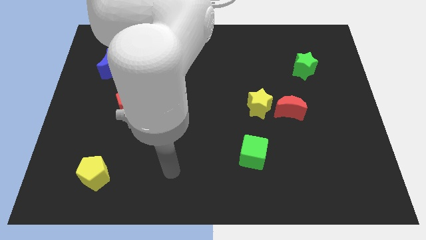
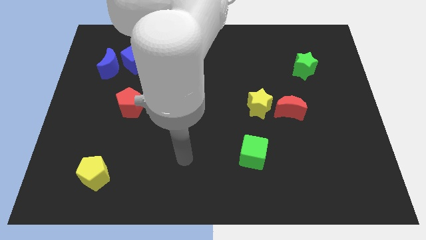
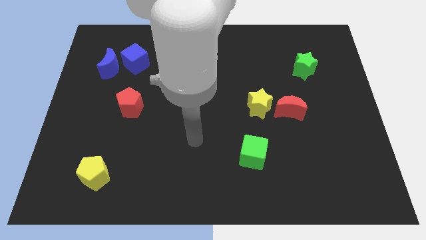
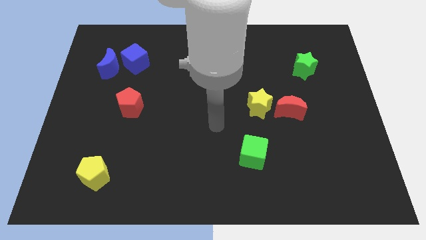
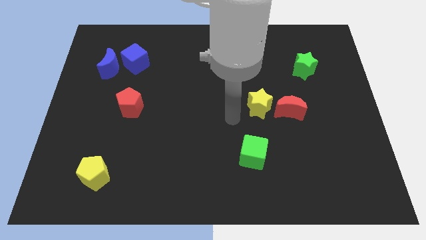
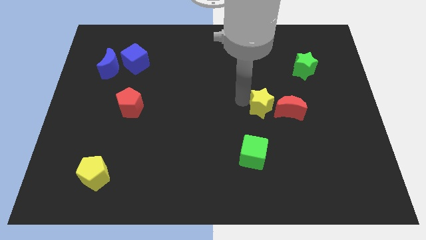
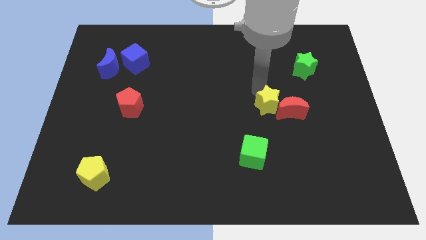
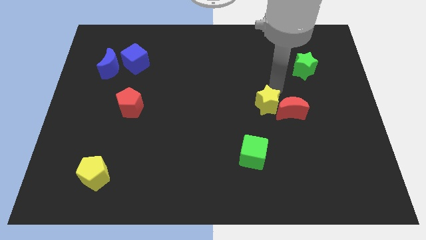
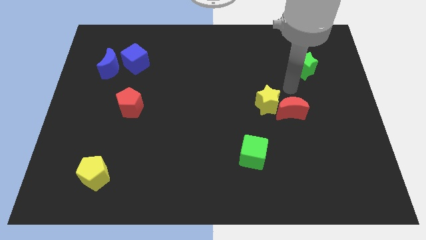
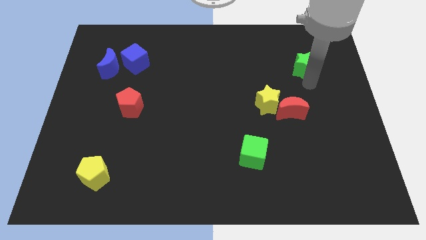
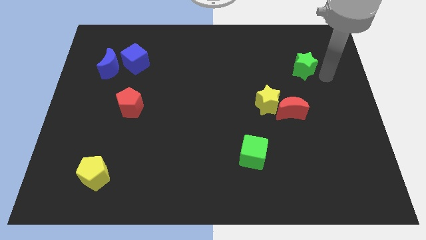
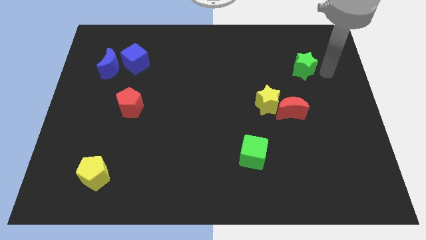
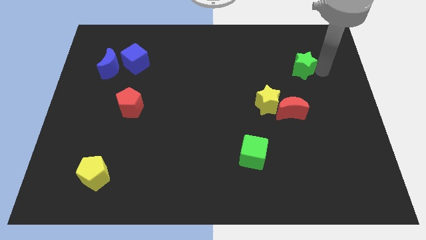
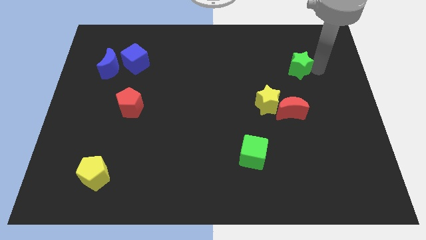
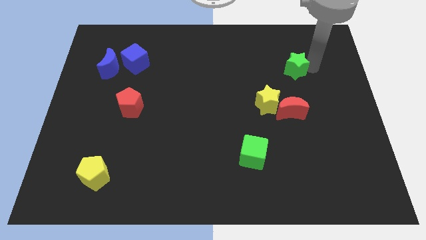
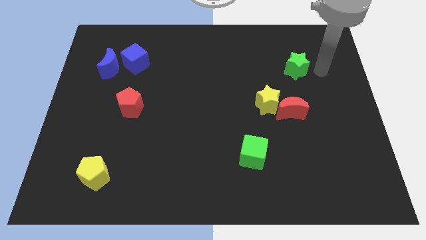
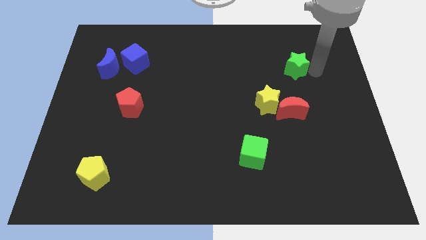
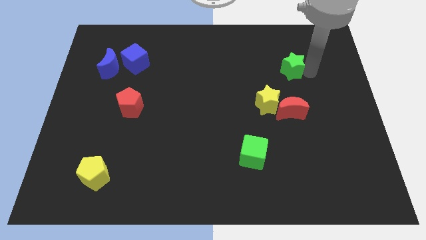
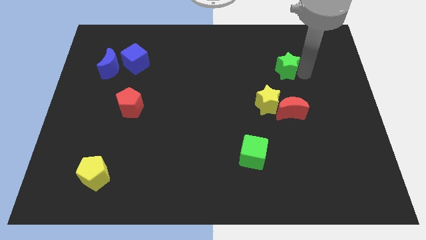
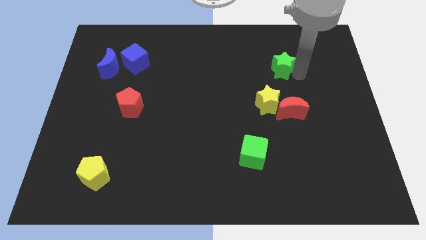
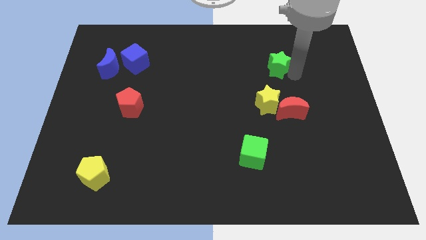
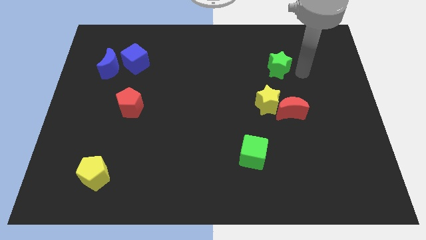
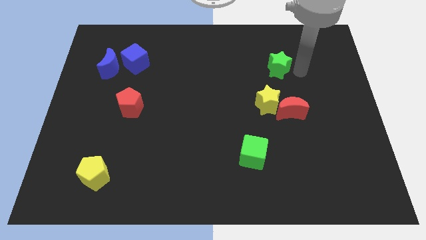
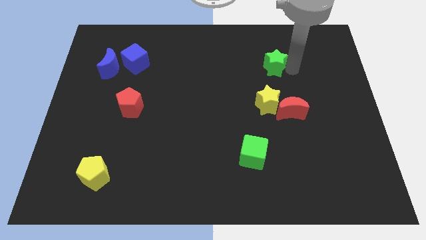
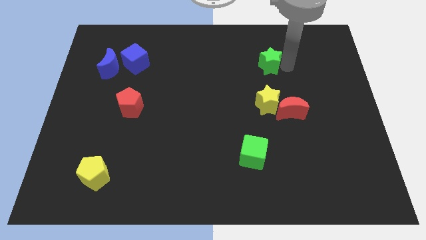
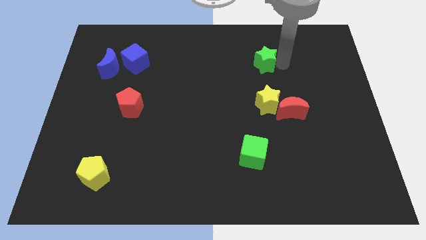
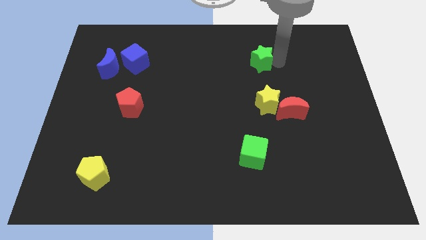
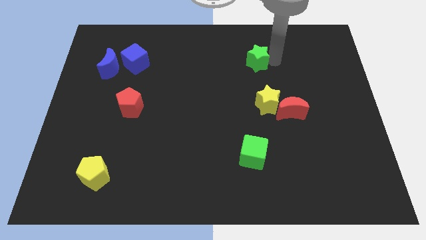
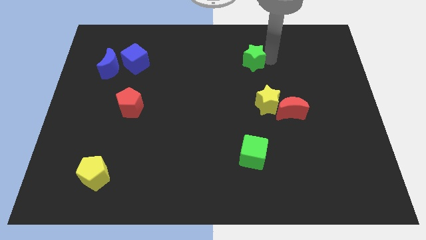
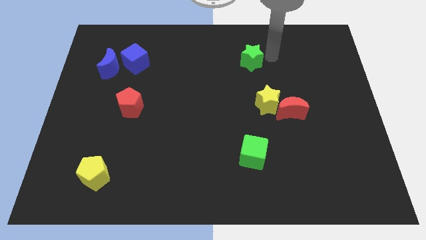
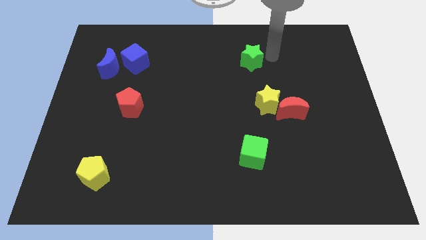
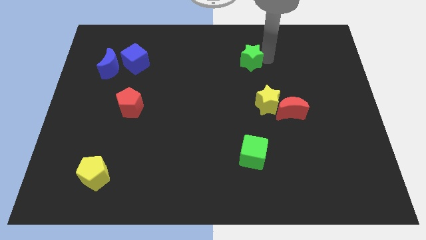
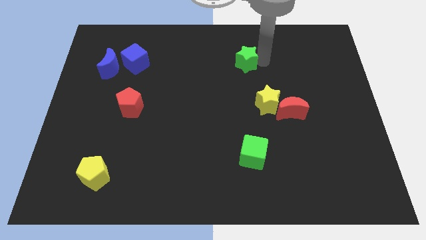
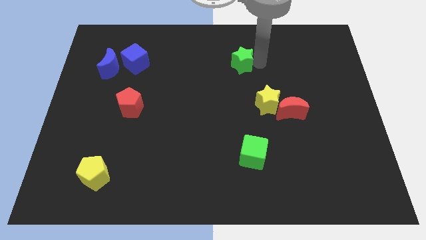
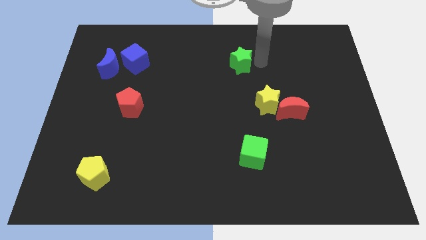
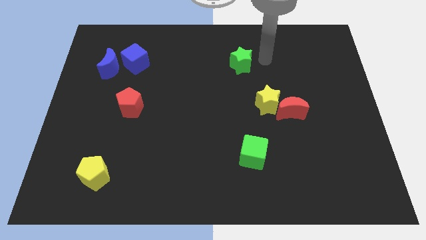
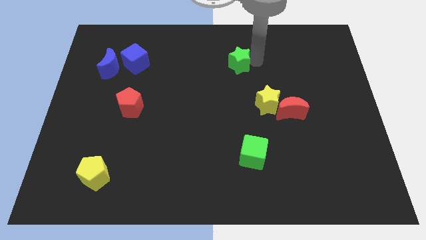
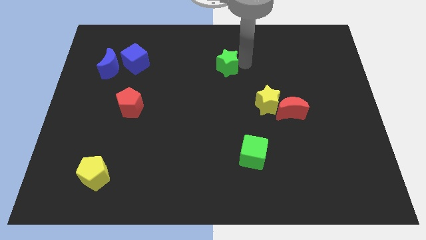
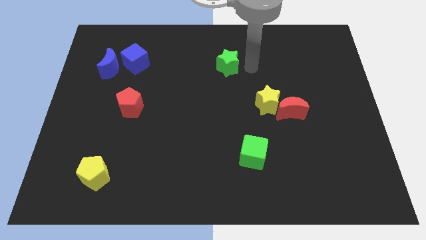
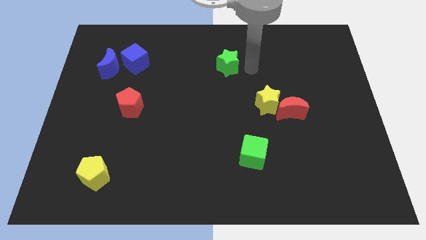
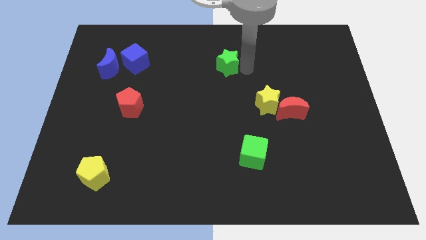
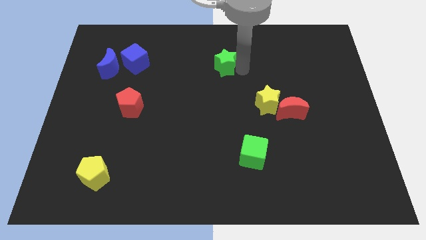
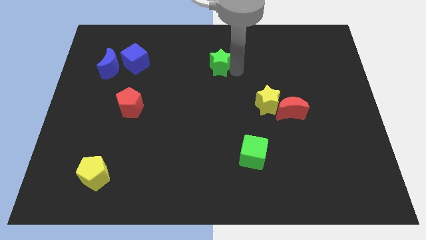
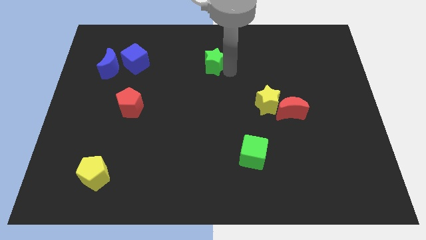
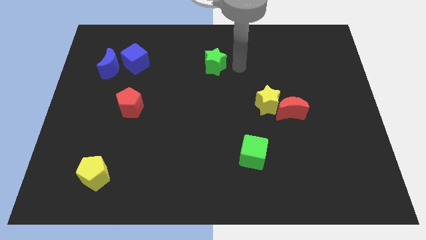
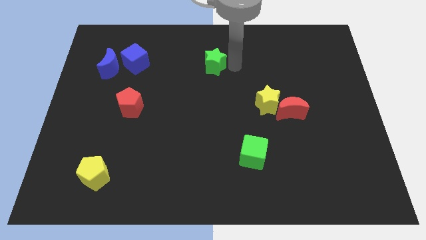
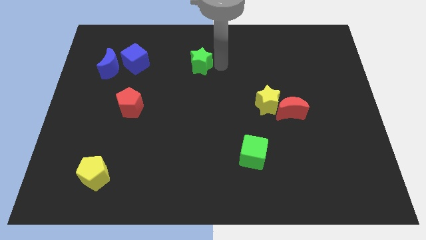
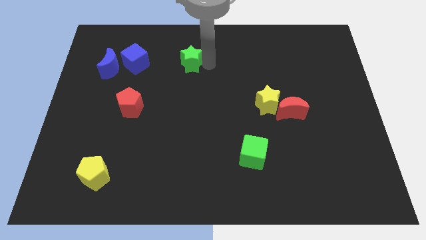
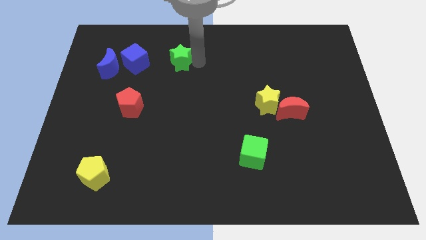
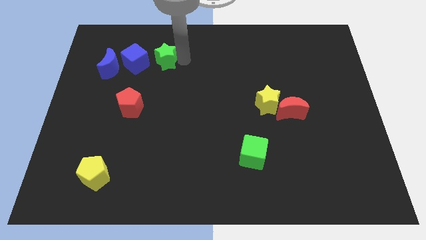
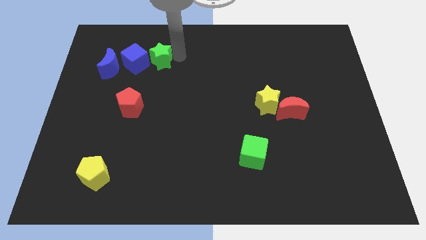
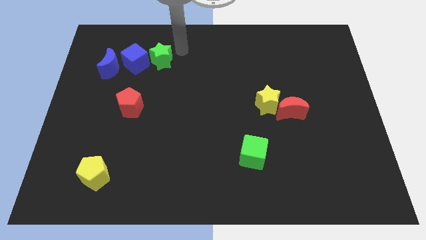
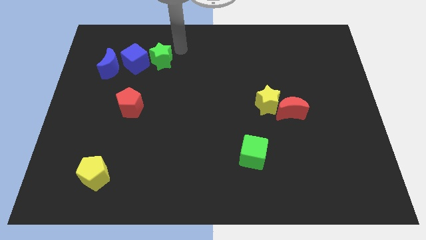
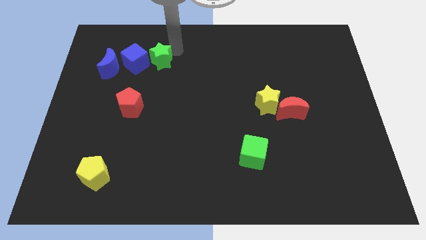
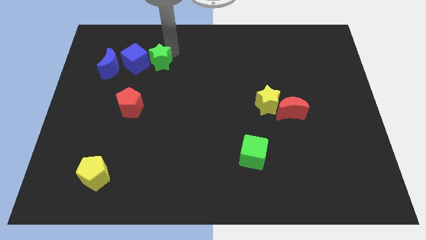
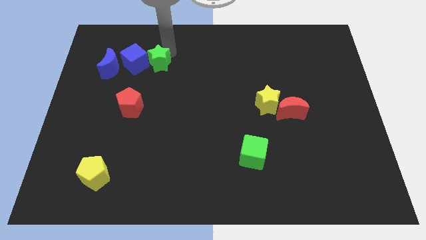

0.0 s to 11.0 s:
slide the green star next to the blue cube

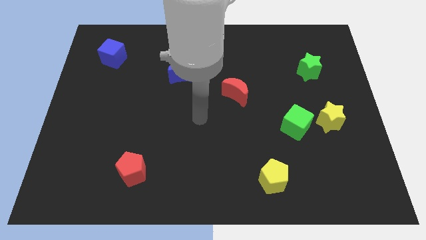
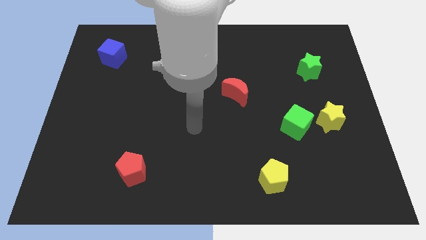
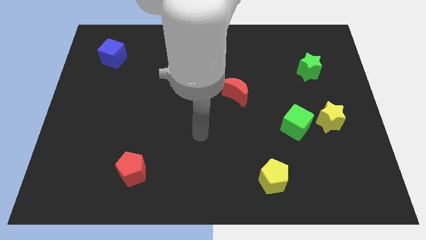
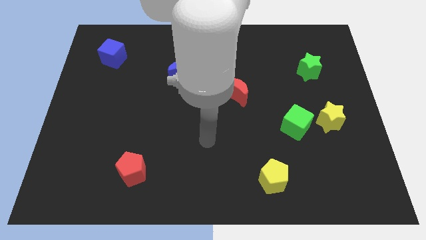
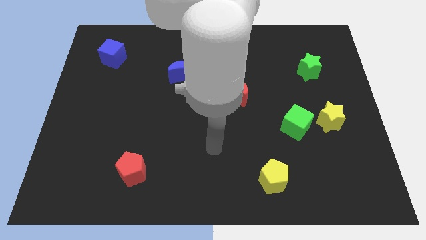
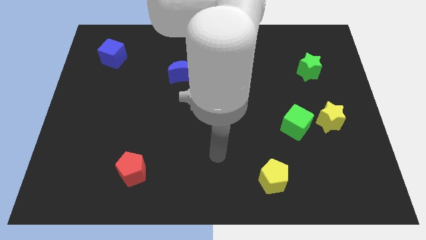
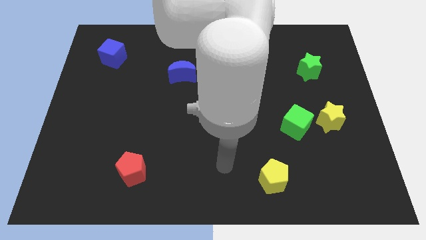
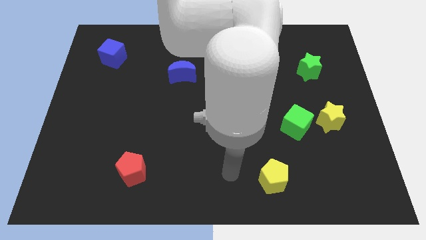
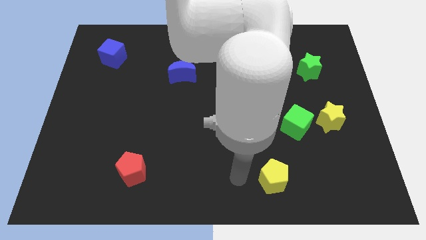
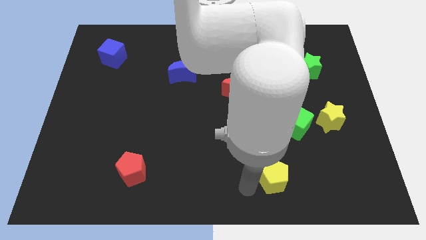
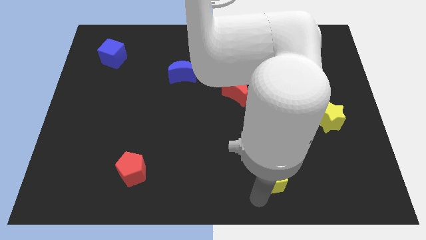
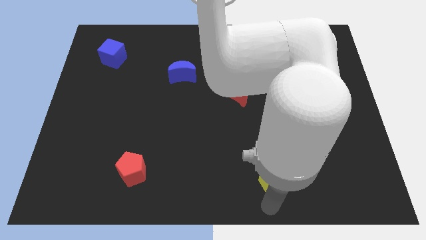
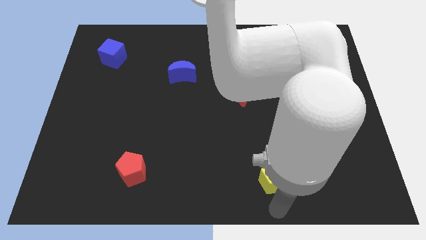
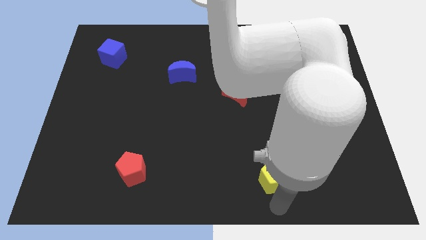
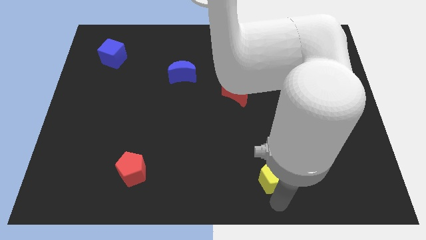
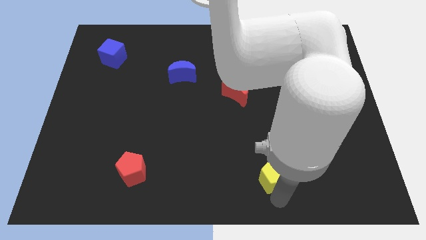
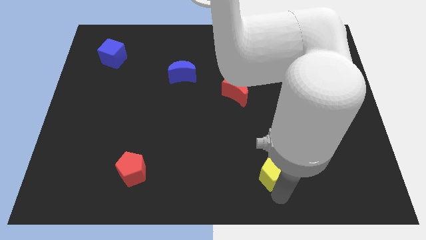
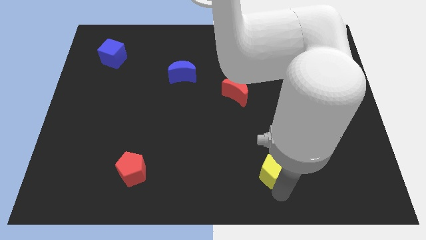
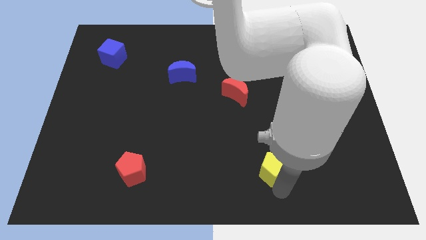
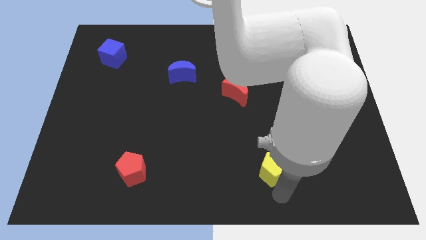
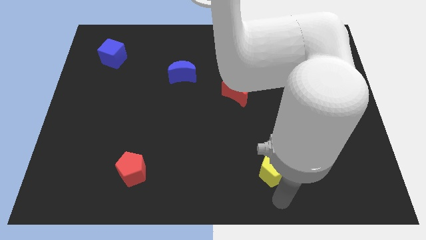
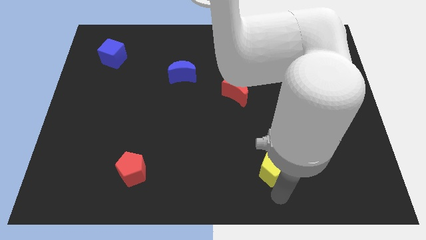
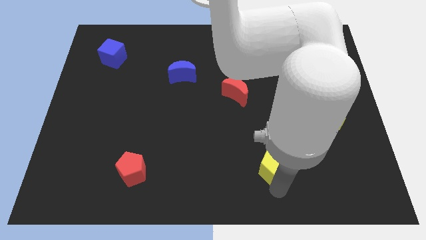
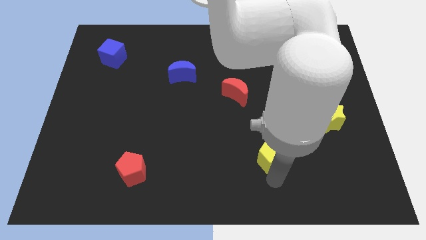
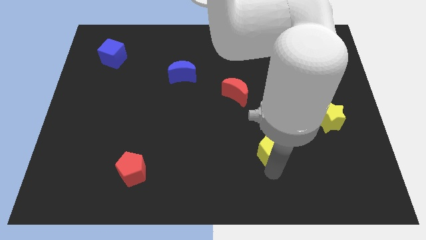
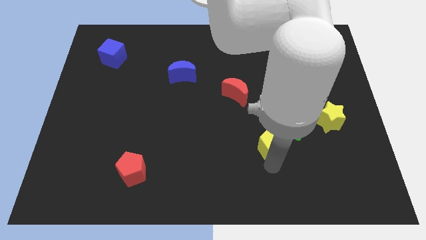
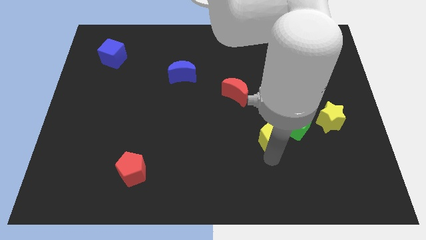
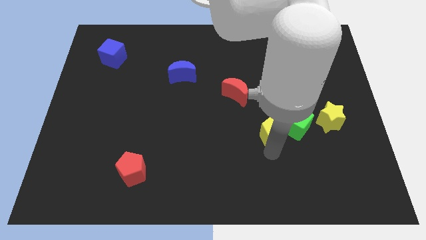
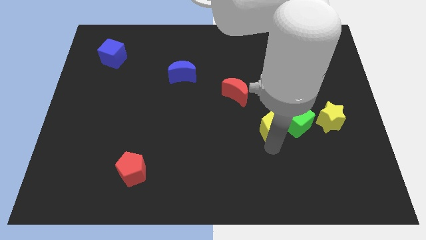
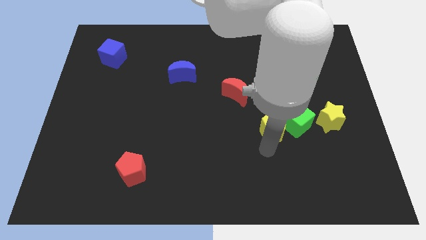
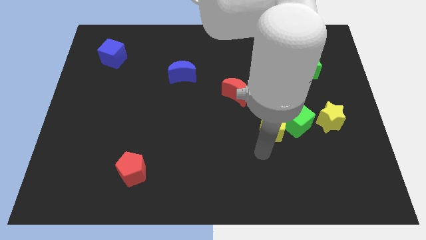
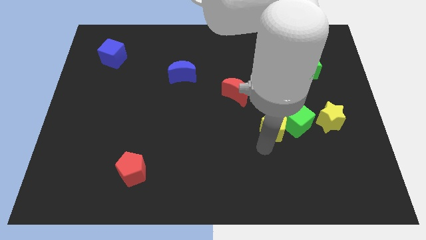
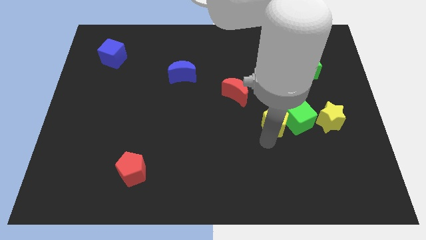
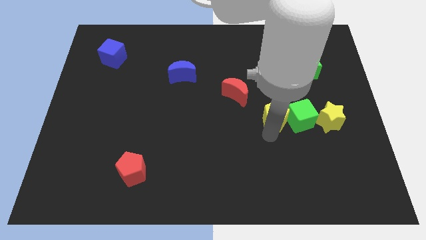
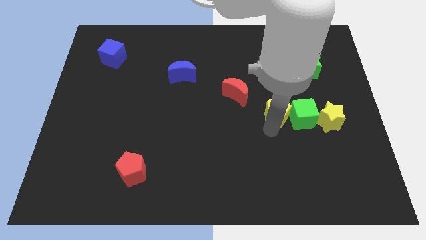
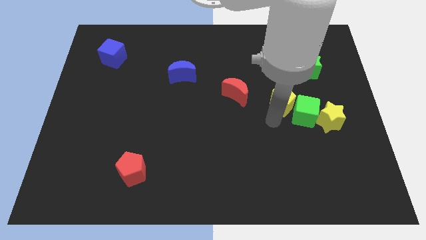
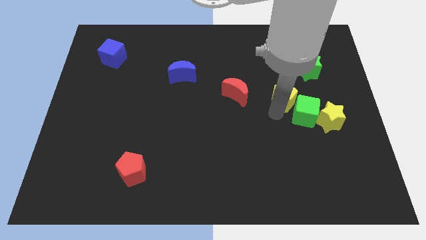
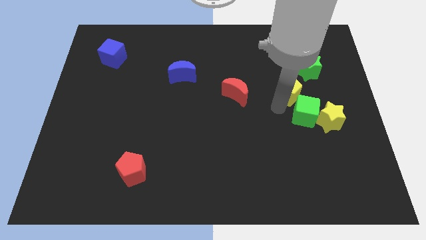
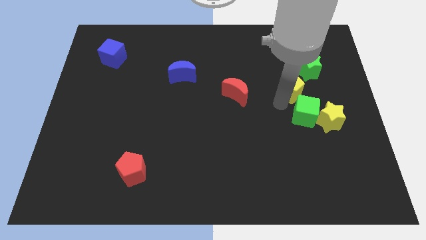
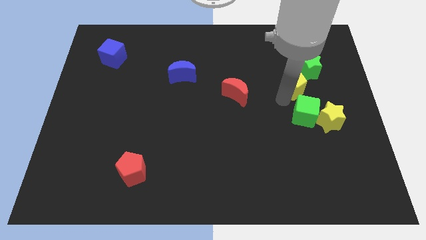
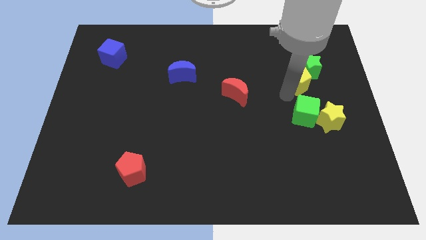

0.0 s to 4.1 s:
push the yellow pentagon towards the green star
